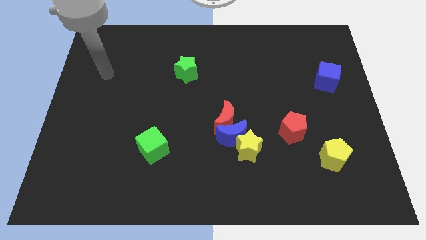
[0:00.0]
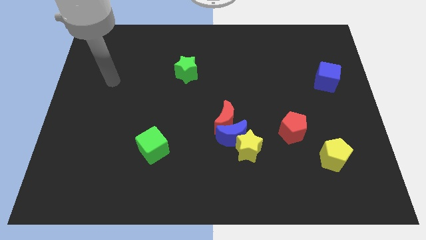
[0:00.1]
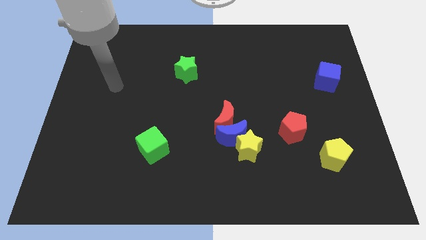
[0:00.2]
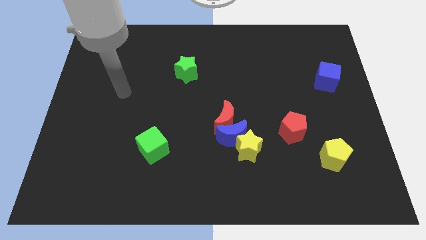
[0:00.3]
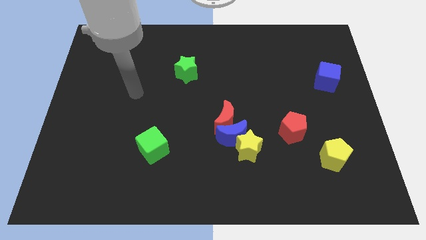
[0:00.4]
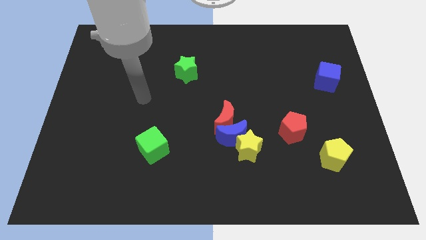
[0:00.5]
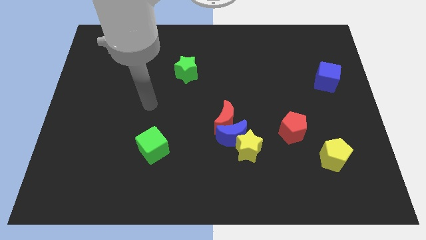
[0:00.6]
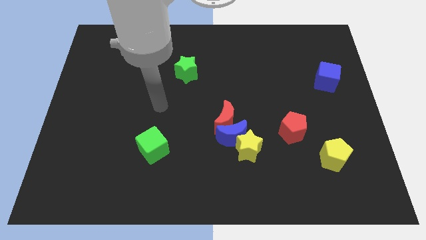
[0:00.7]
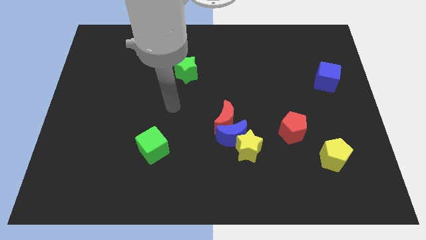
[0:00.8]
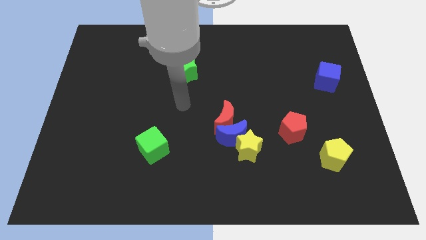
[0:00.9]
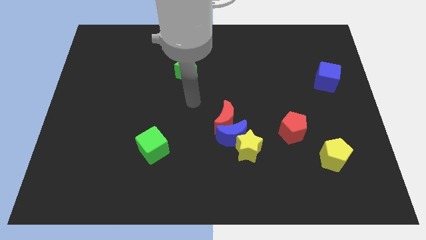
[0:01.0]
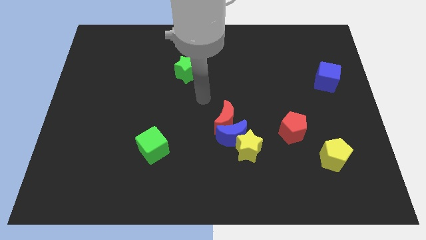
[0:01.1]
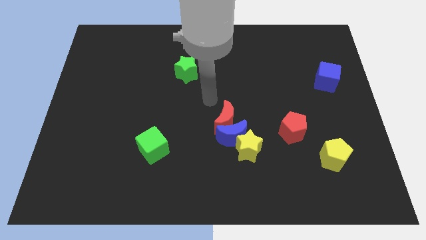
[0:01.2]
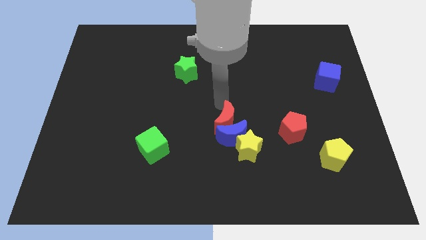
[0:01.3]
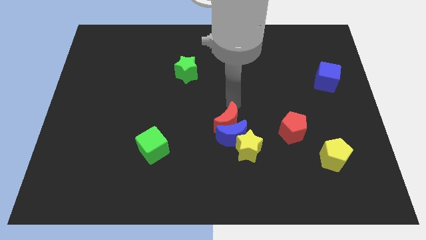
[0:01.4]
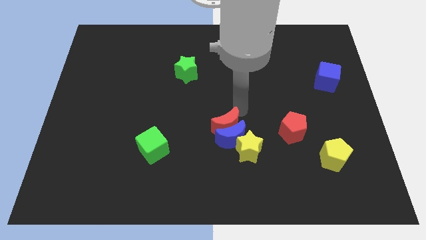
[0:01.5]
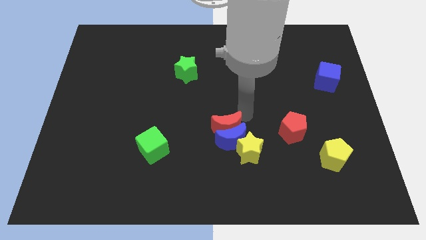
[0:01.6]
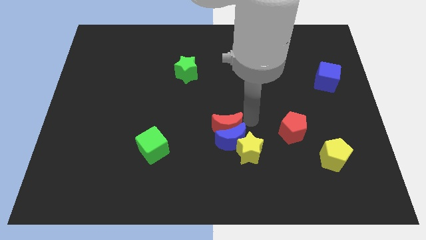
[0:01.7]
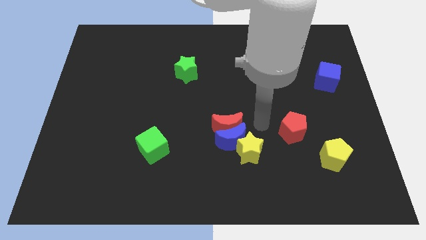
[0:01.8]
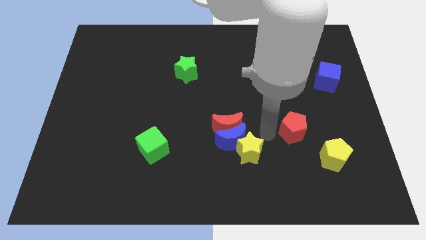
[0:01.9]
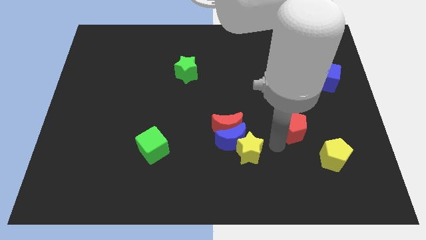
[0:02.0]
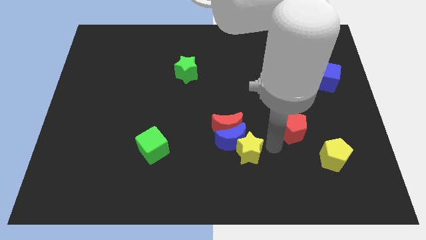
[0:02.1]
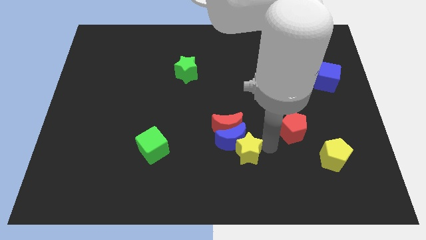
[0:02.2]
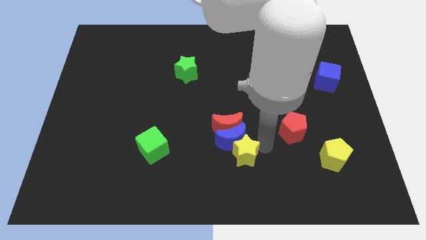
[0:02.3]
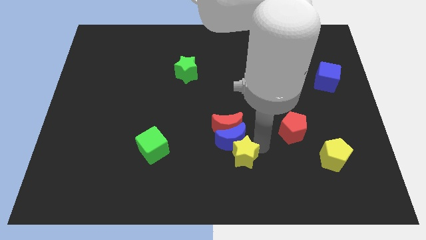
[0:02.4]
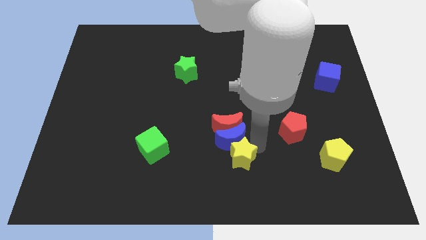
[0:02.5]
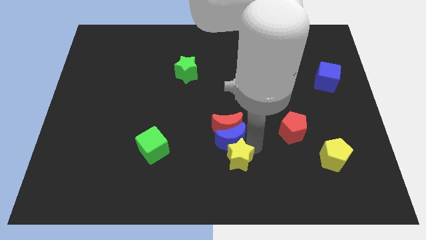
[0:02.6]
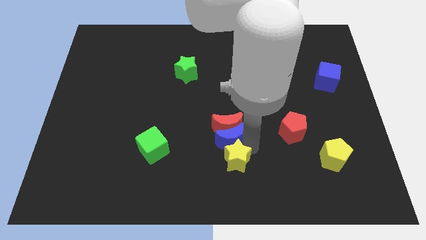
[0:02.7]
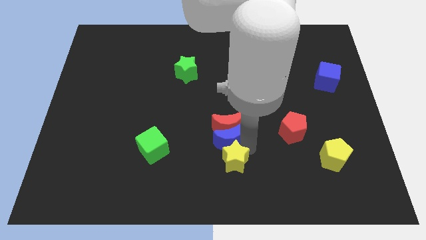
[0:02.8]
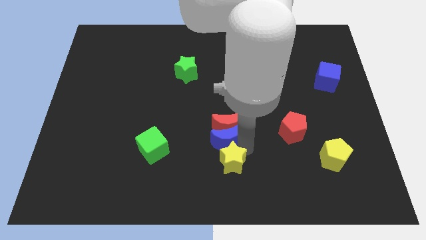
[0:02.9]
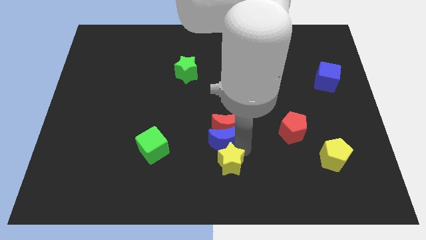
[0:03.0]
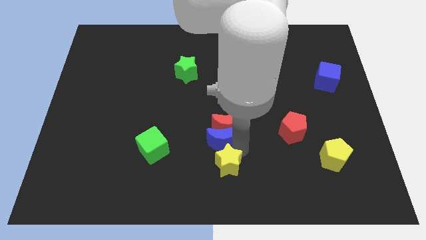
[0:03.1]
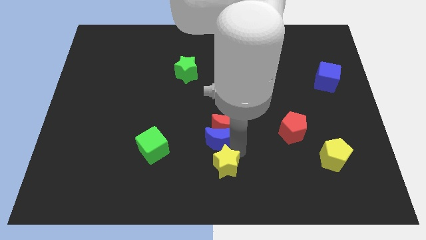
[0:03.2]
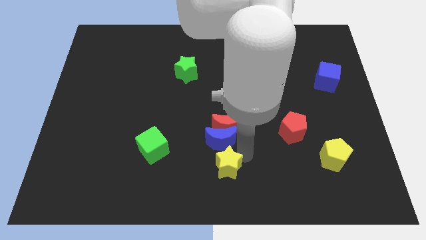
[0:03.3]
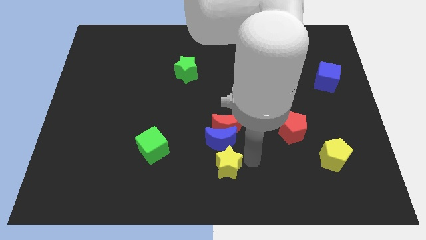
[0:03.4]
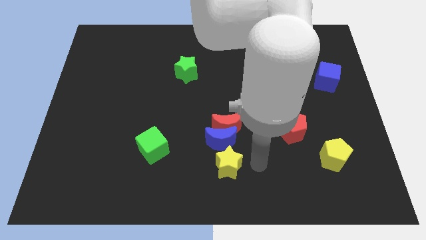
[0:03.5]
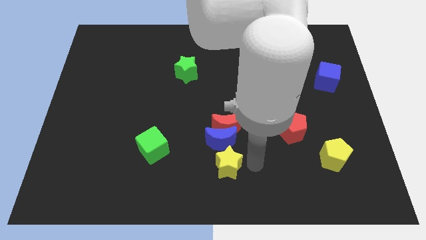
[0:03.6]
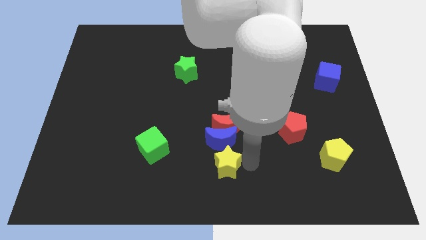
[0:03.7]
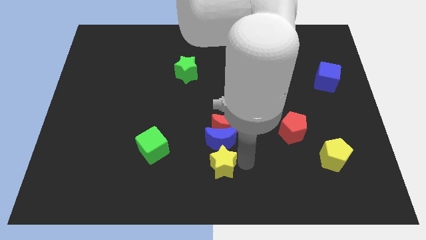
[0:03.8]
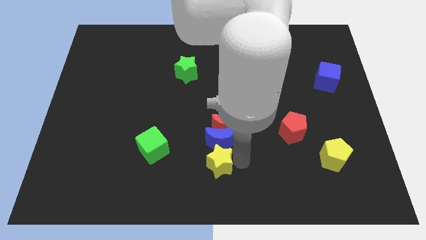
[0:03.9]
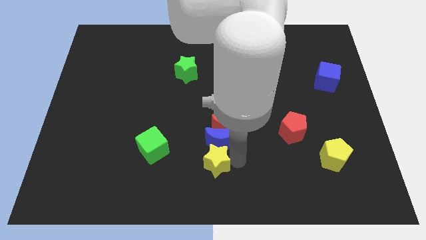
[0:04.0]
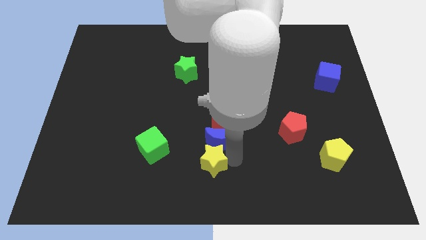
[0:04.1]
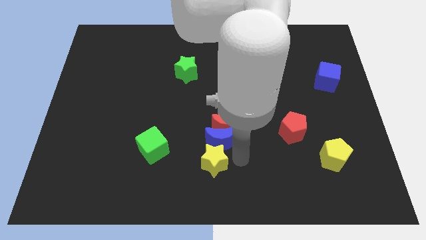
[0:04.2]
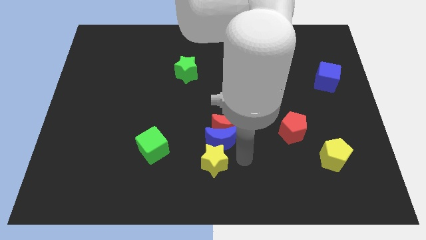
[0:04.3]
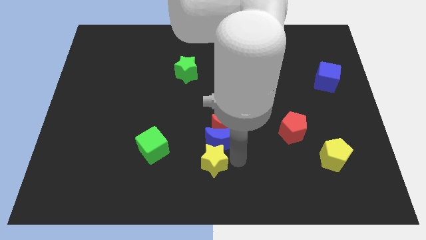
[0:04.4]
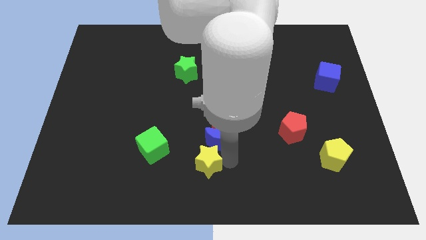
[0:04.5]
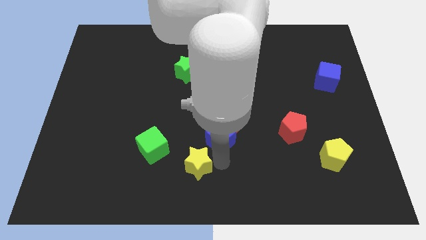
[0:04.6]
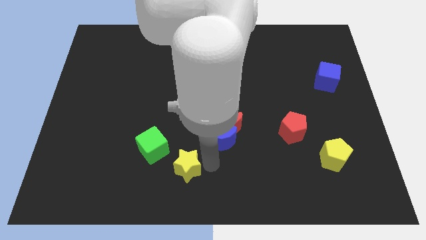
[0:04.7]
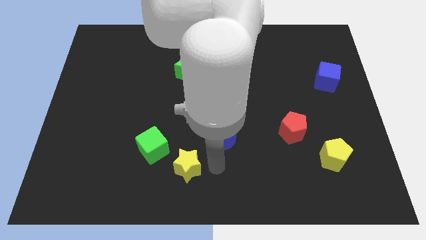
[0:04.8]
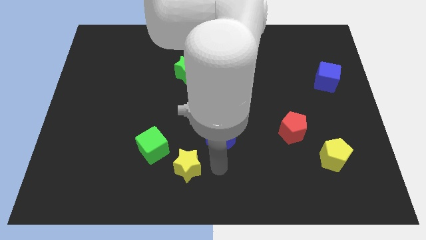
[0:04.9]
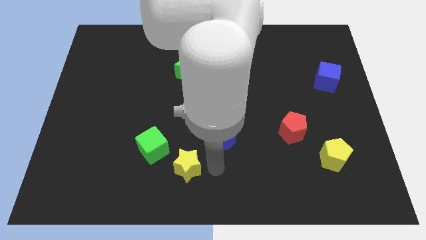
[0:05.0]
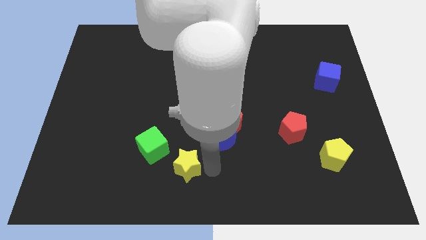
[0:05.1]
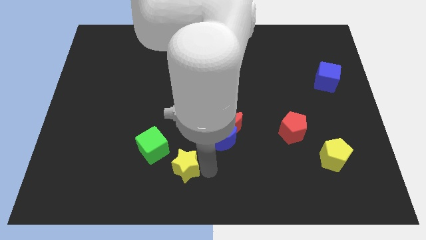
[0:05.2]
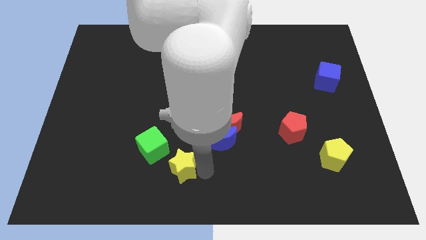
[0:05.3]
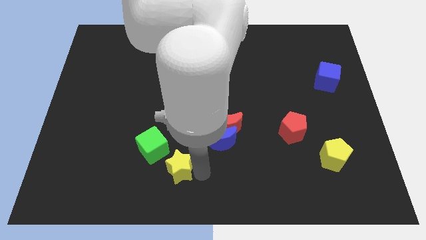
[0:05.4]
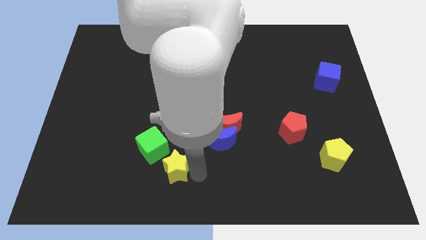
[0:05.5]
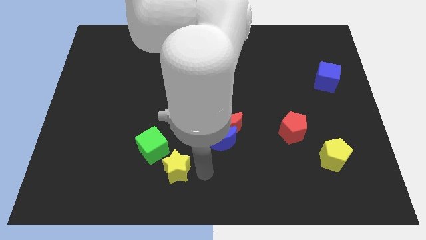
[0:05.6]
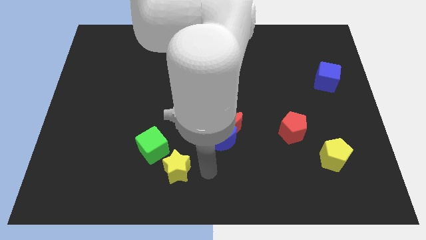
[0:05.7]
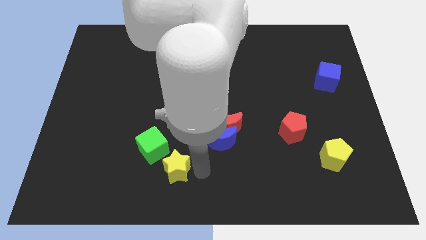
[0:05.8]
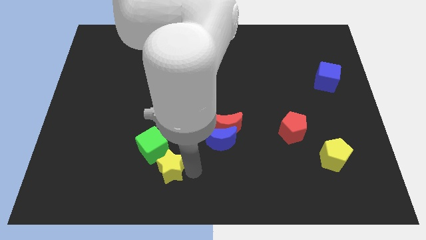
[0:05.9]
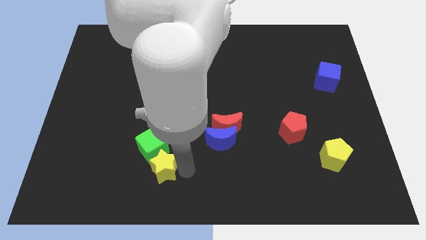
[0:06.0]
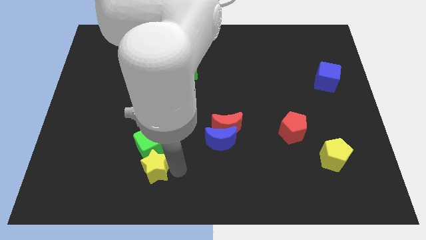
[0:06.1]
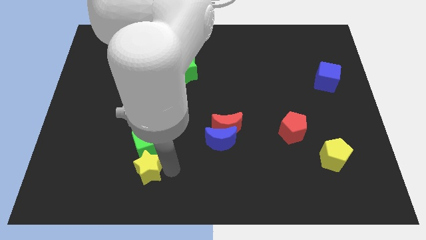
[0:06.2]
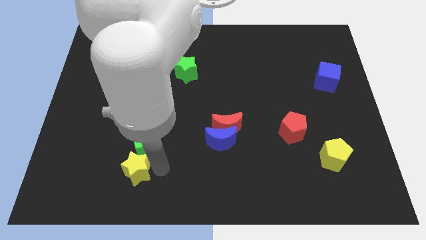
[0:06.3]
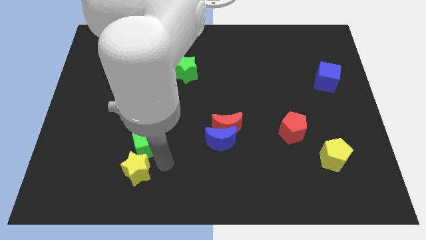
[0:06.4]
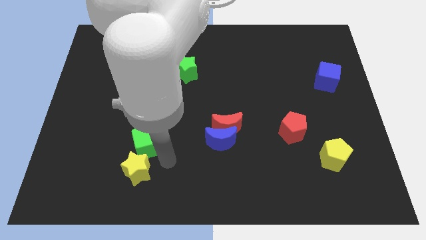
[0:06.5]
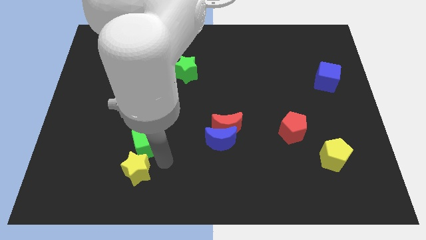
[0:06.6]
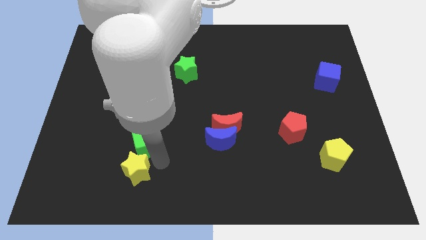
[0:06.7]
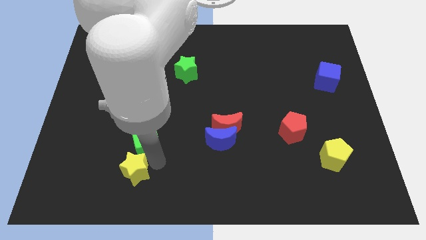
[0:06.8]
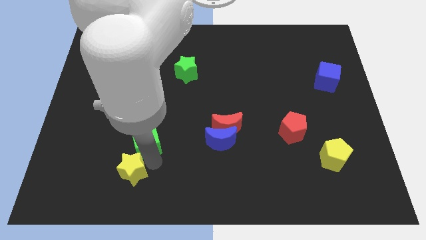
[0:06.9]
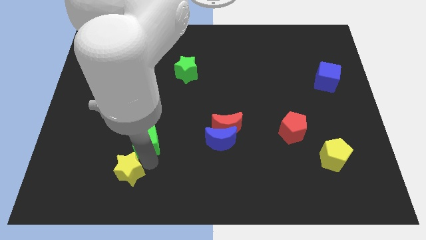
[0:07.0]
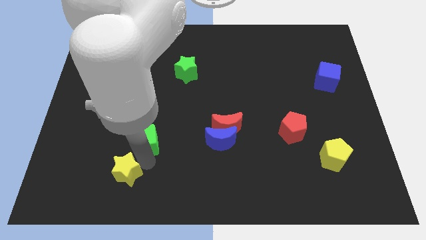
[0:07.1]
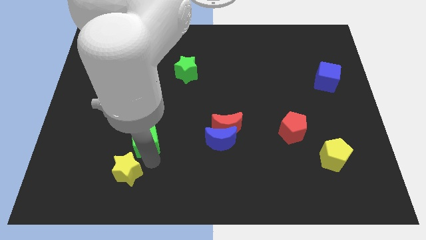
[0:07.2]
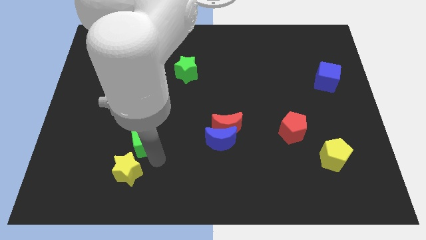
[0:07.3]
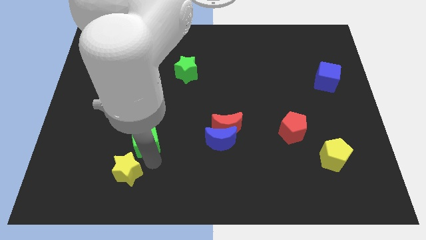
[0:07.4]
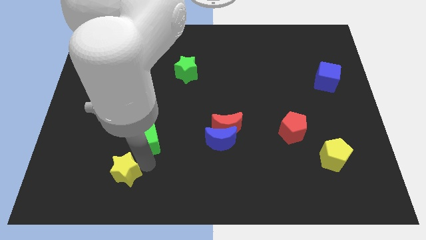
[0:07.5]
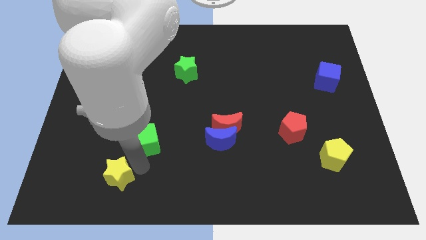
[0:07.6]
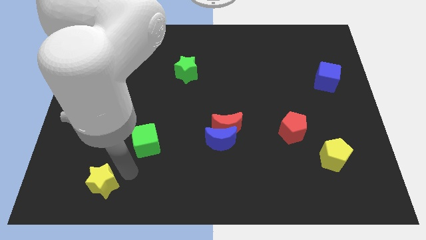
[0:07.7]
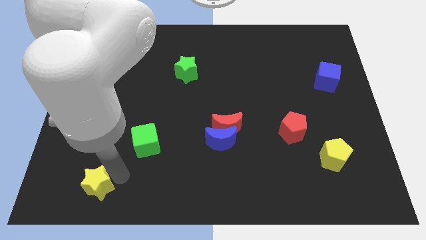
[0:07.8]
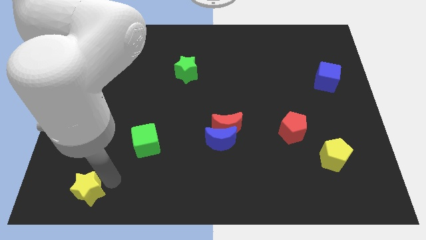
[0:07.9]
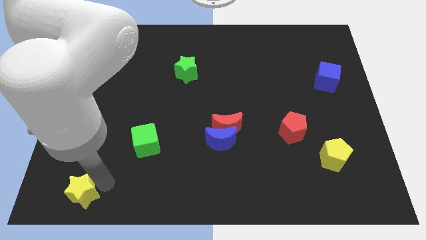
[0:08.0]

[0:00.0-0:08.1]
slide the yellow star to the bottom left
